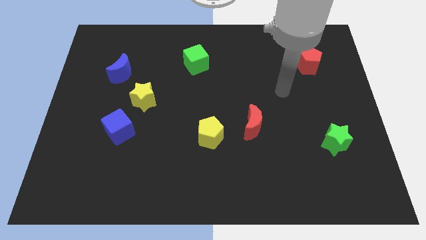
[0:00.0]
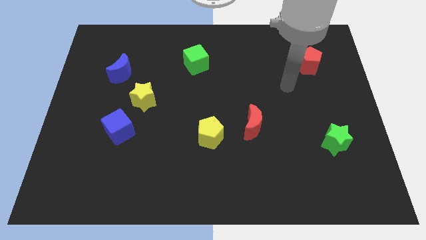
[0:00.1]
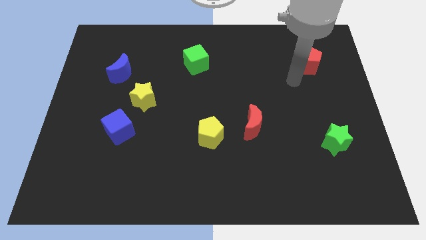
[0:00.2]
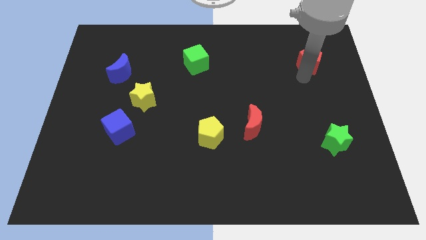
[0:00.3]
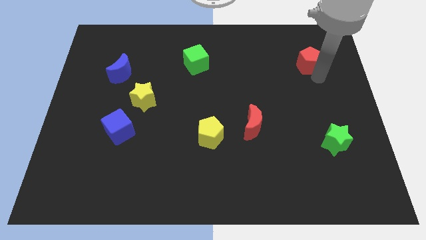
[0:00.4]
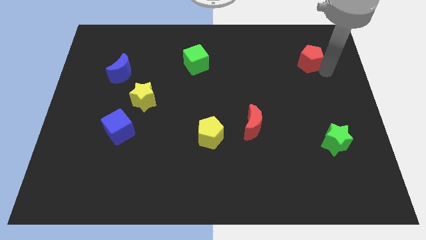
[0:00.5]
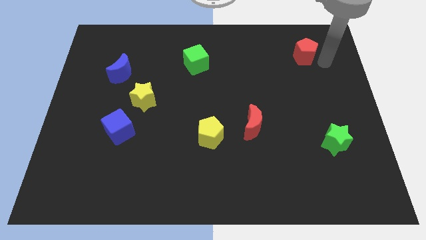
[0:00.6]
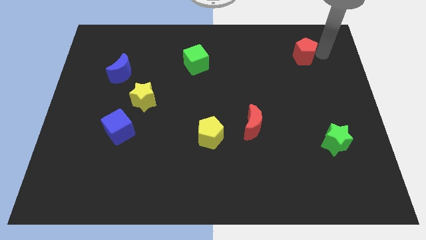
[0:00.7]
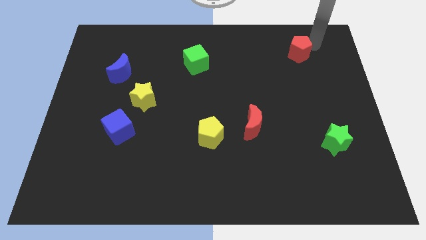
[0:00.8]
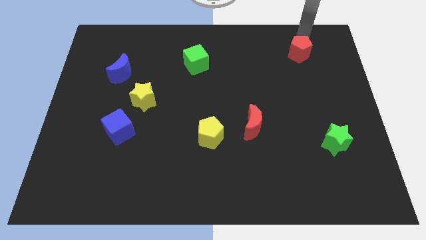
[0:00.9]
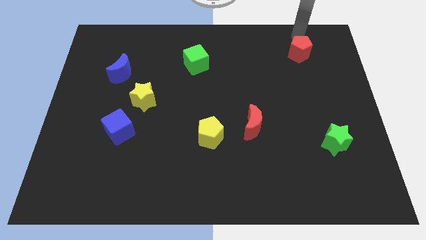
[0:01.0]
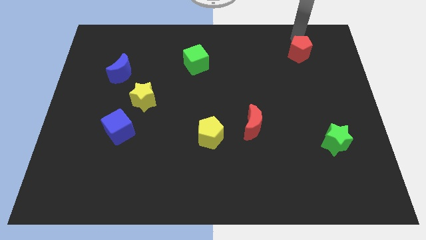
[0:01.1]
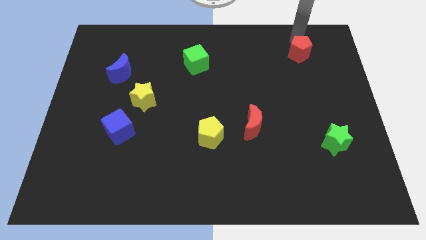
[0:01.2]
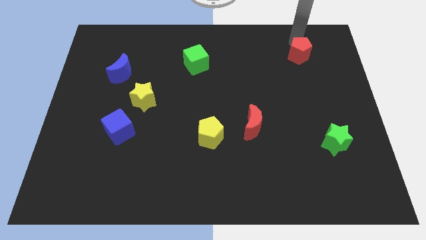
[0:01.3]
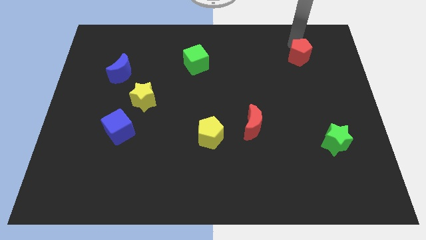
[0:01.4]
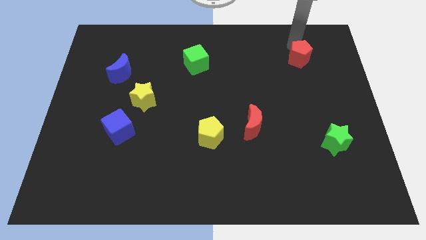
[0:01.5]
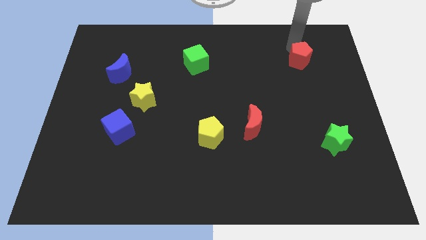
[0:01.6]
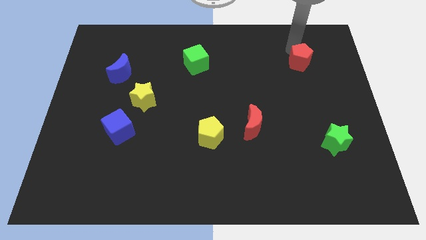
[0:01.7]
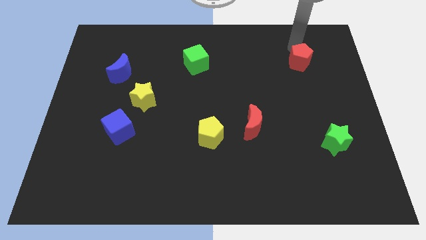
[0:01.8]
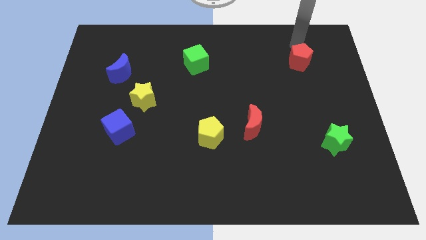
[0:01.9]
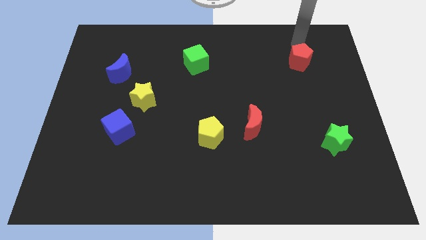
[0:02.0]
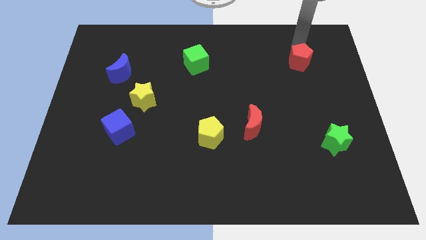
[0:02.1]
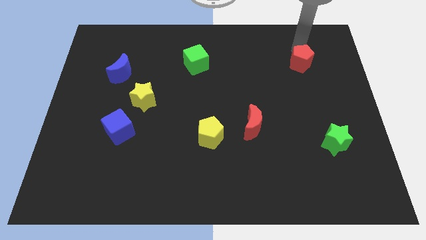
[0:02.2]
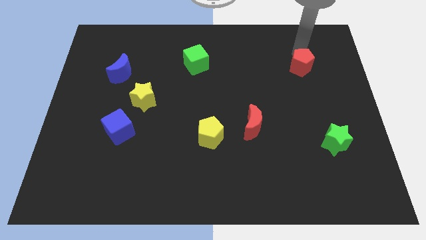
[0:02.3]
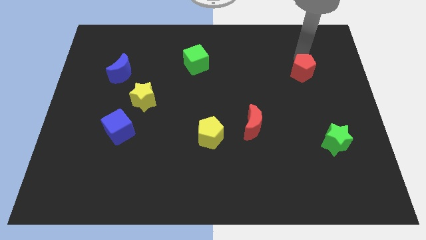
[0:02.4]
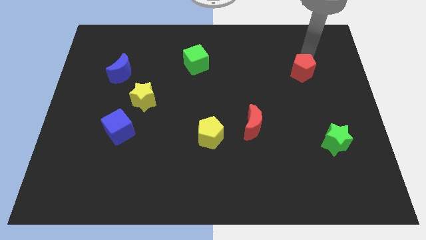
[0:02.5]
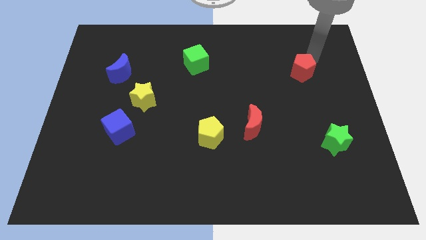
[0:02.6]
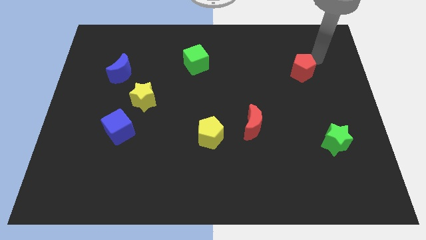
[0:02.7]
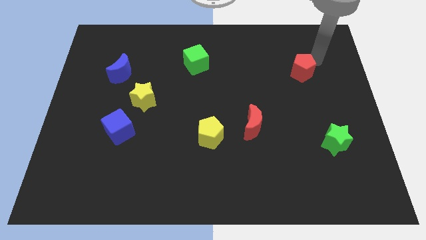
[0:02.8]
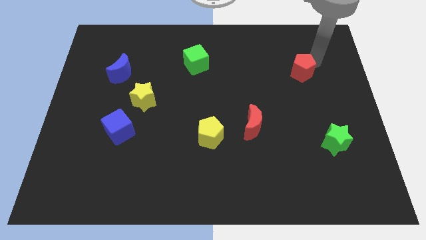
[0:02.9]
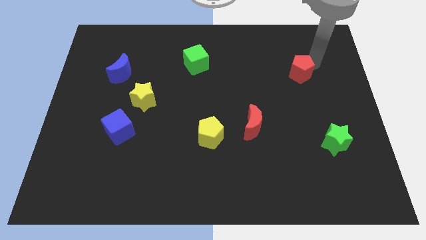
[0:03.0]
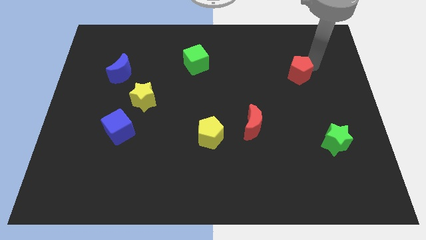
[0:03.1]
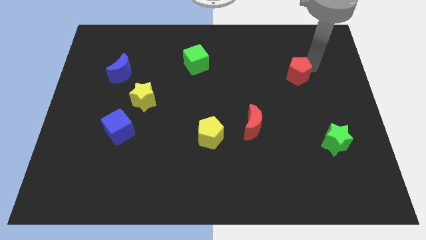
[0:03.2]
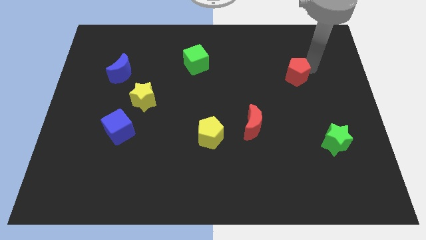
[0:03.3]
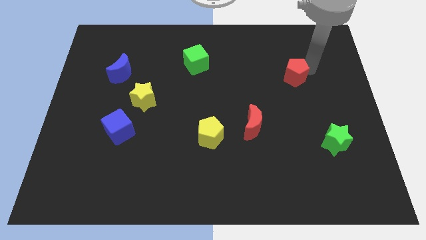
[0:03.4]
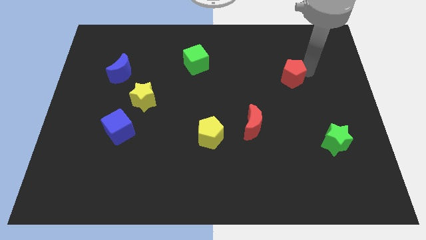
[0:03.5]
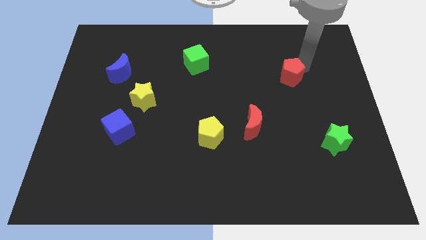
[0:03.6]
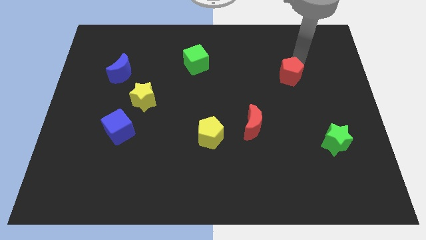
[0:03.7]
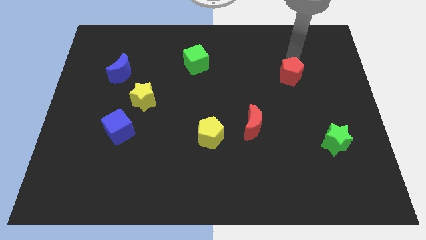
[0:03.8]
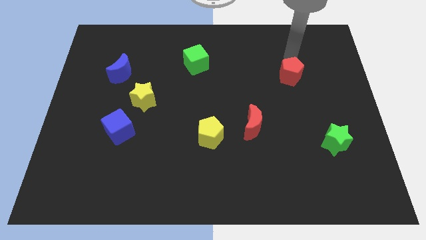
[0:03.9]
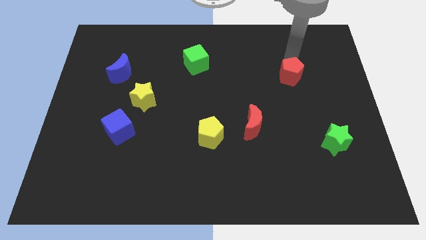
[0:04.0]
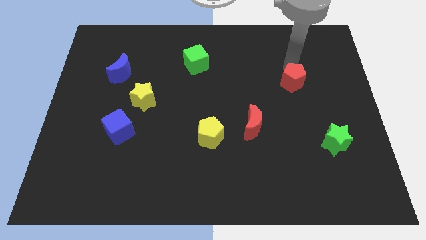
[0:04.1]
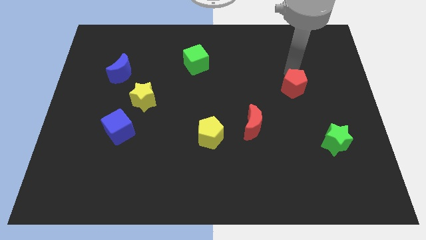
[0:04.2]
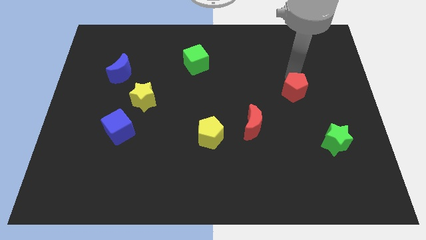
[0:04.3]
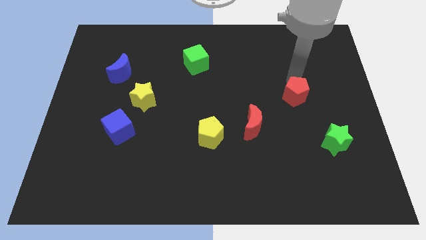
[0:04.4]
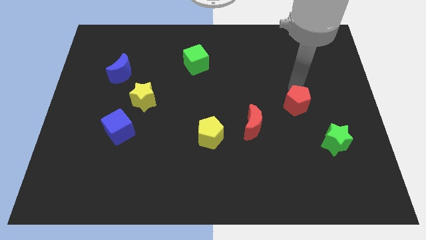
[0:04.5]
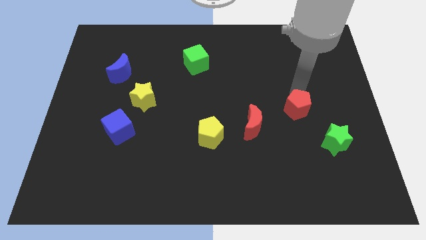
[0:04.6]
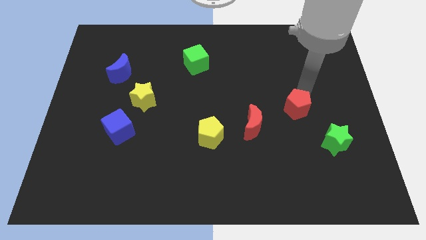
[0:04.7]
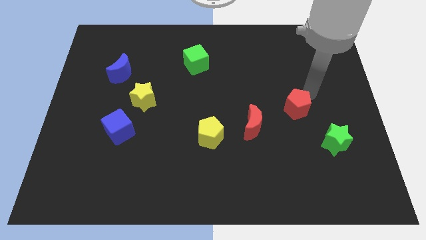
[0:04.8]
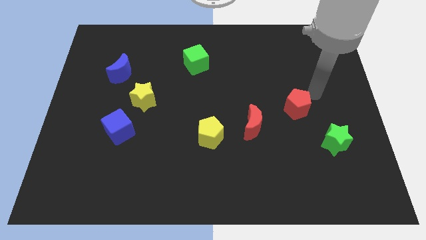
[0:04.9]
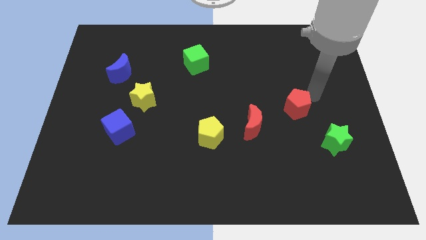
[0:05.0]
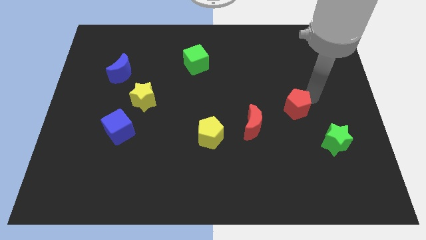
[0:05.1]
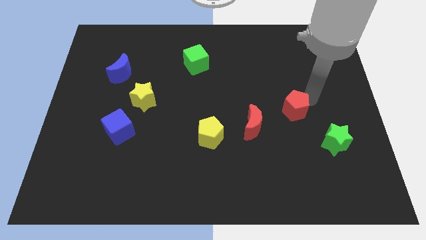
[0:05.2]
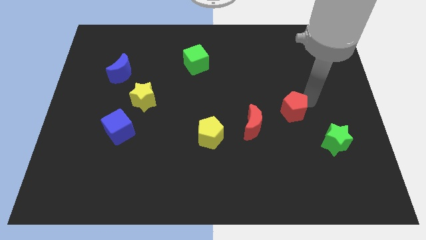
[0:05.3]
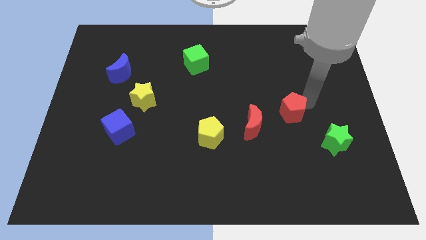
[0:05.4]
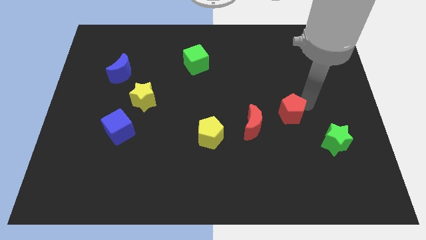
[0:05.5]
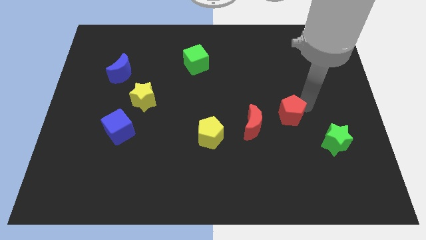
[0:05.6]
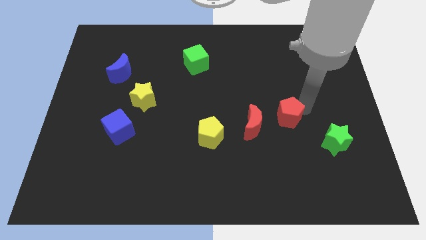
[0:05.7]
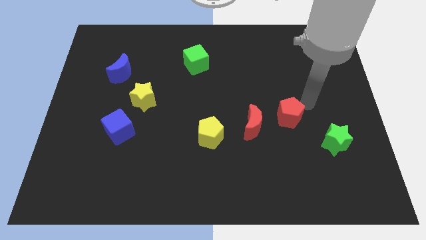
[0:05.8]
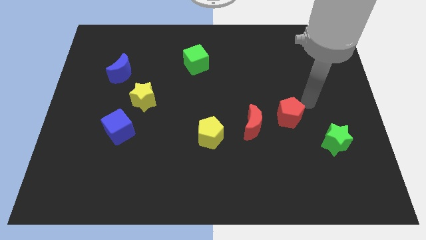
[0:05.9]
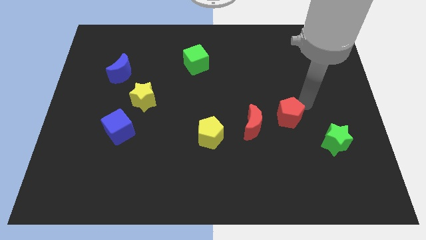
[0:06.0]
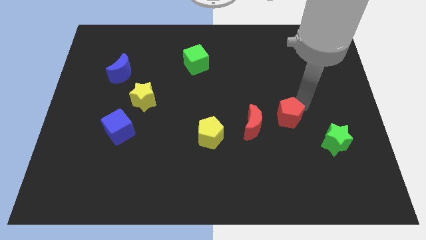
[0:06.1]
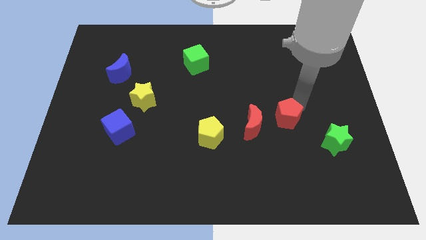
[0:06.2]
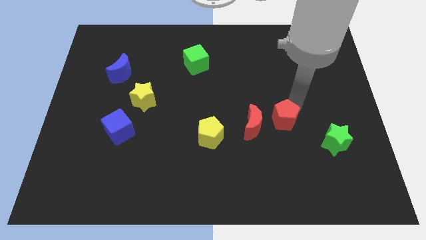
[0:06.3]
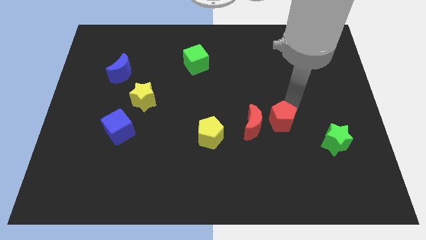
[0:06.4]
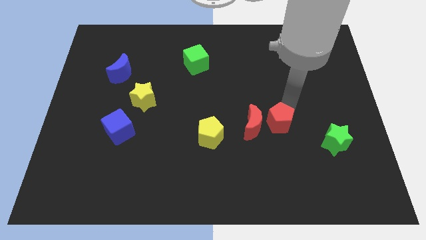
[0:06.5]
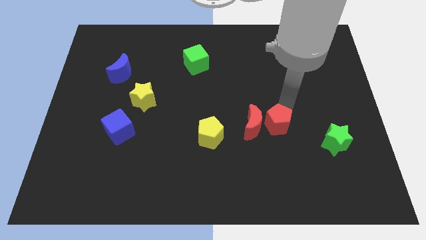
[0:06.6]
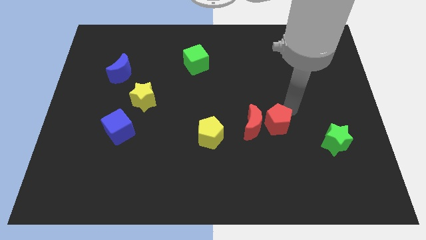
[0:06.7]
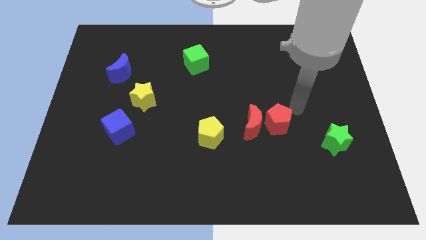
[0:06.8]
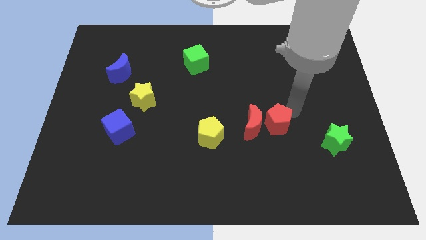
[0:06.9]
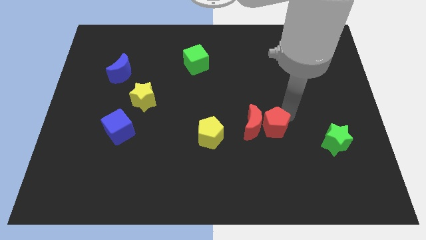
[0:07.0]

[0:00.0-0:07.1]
slide the red pentagon right of the yellow pentagon

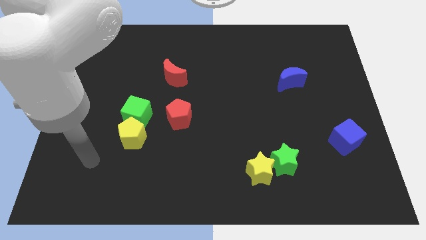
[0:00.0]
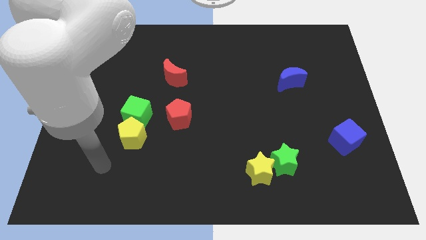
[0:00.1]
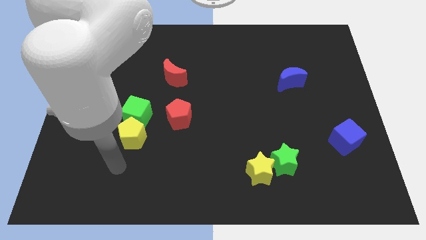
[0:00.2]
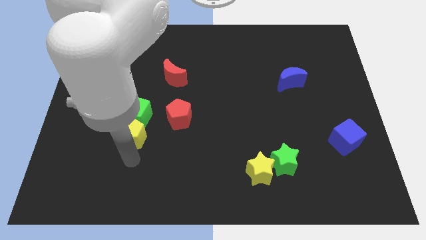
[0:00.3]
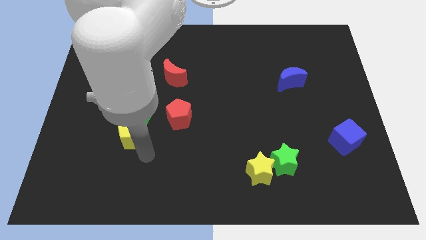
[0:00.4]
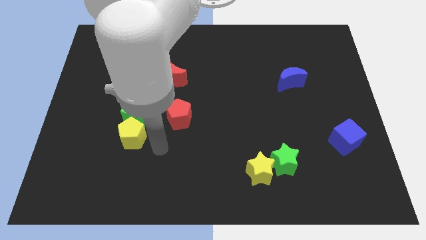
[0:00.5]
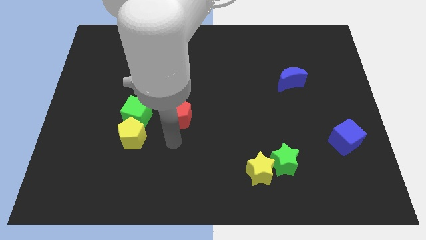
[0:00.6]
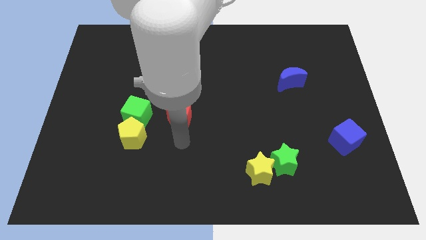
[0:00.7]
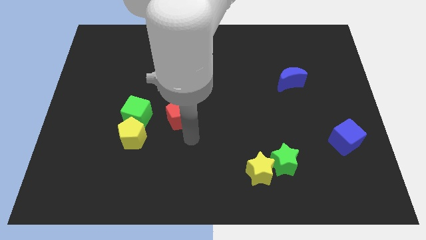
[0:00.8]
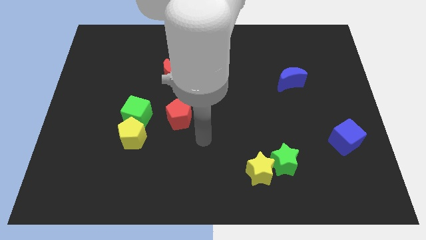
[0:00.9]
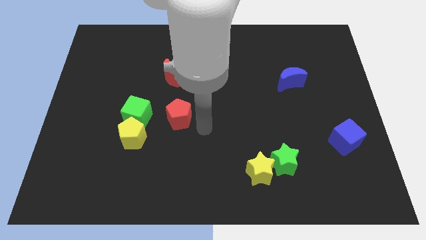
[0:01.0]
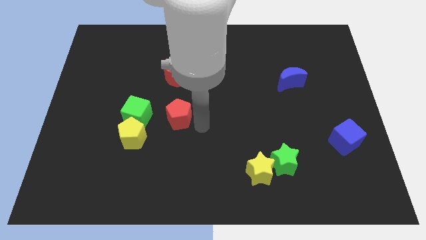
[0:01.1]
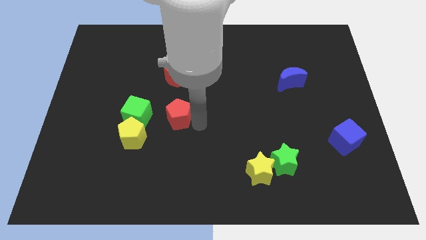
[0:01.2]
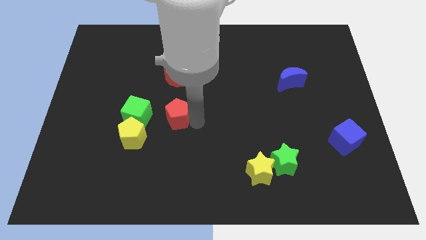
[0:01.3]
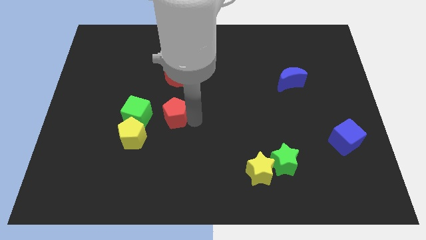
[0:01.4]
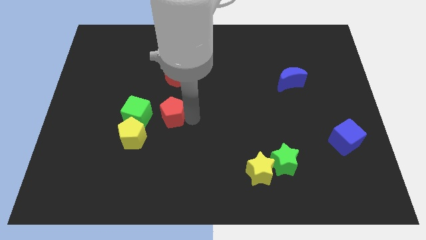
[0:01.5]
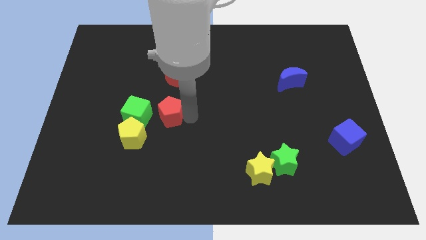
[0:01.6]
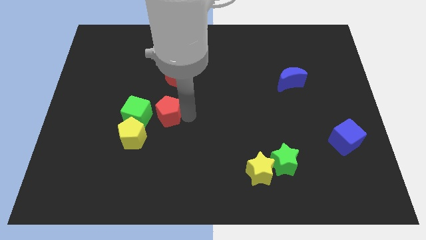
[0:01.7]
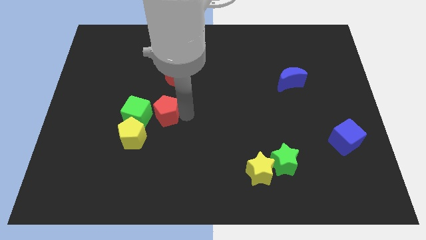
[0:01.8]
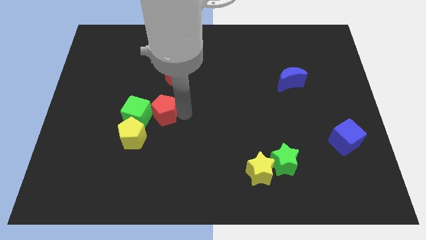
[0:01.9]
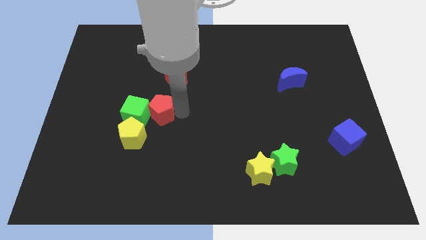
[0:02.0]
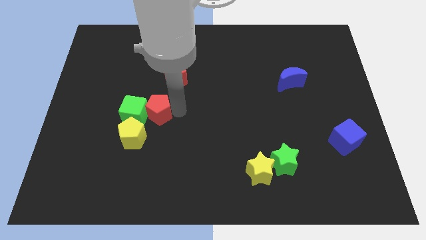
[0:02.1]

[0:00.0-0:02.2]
slide the red pentagon above the yellow pentagon
